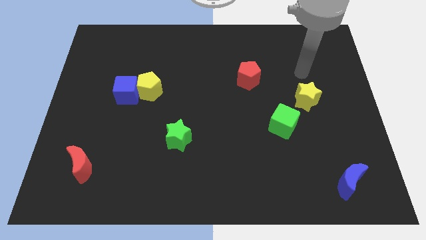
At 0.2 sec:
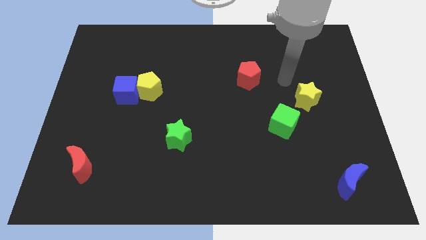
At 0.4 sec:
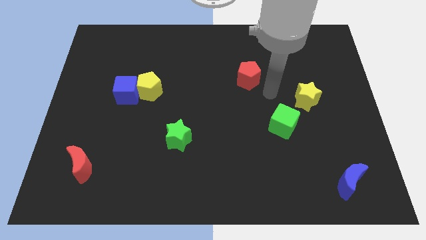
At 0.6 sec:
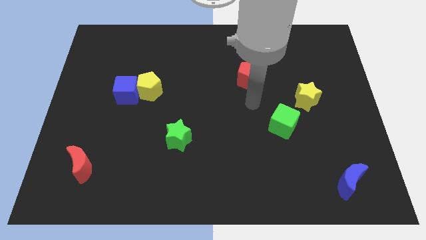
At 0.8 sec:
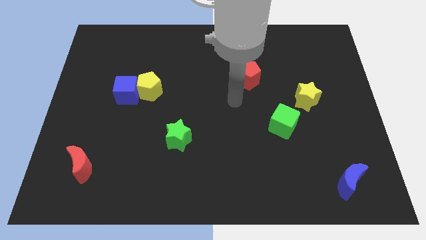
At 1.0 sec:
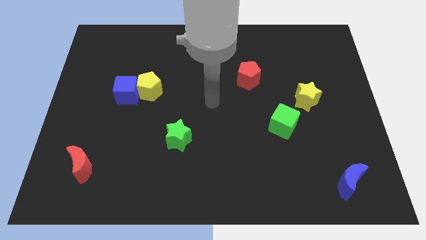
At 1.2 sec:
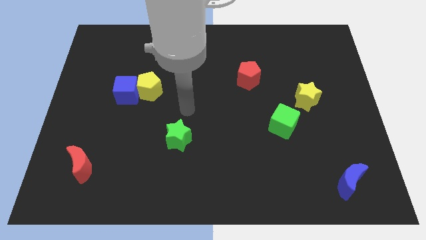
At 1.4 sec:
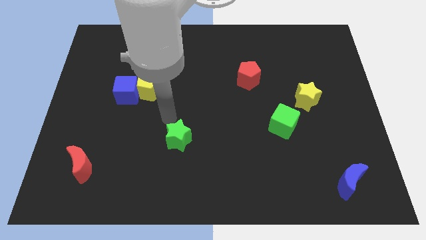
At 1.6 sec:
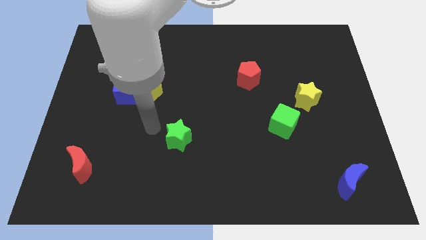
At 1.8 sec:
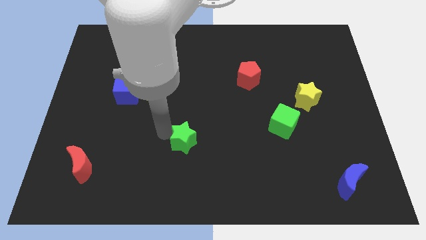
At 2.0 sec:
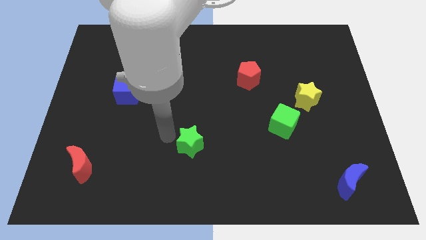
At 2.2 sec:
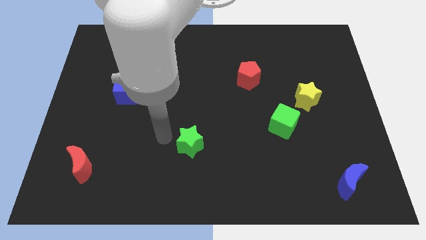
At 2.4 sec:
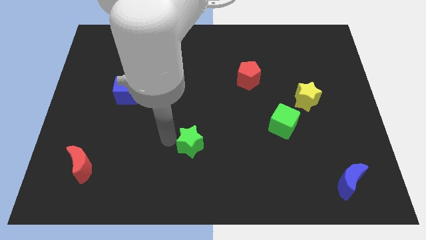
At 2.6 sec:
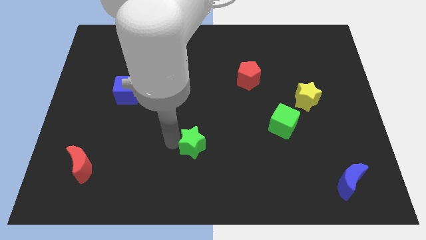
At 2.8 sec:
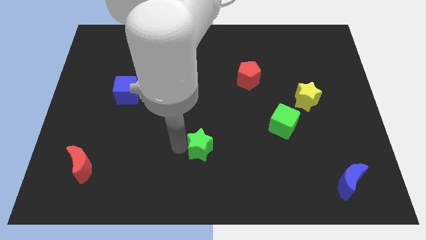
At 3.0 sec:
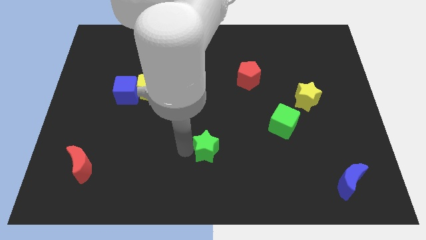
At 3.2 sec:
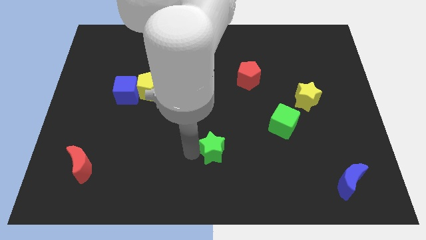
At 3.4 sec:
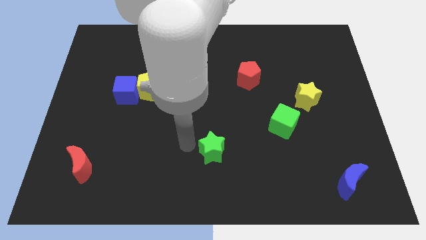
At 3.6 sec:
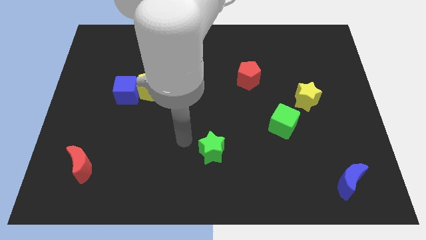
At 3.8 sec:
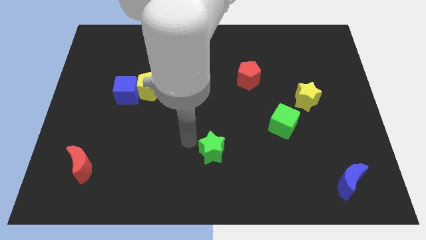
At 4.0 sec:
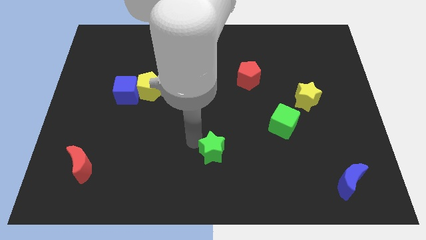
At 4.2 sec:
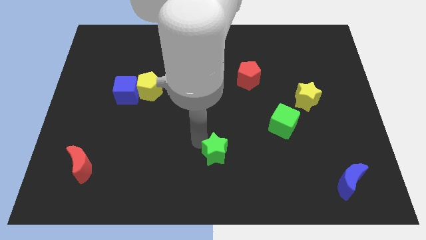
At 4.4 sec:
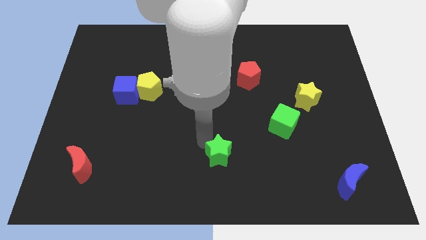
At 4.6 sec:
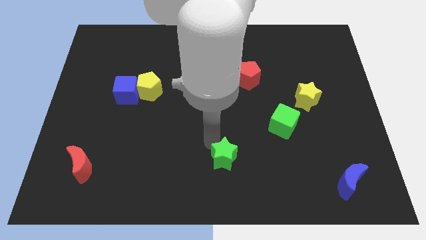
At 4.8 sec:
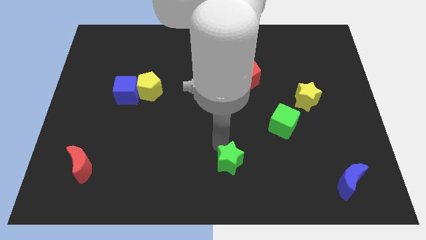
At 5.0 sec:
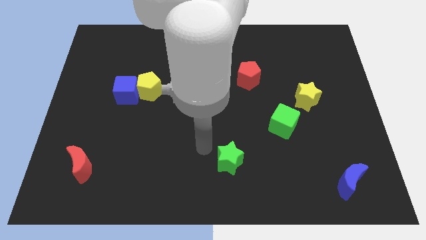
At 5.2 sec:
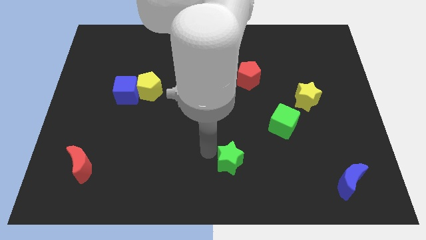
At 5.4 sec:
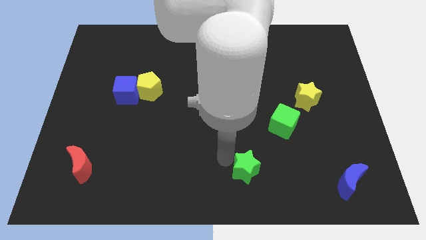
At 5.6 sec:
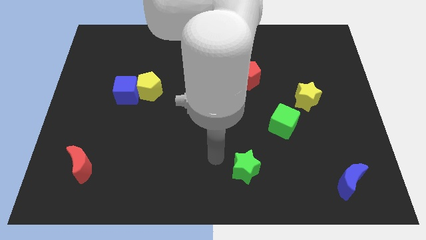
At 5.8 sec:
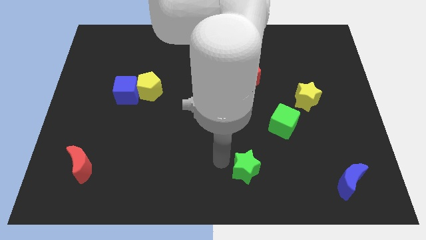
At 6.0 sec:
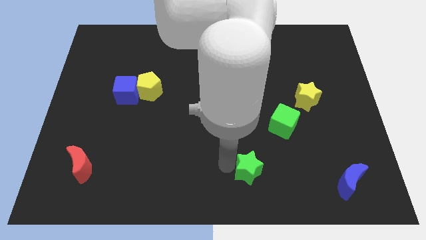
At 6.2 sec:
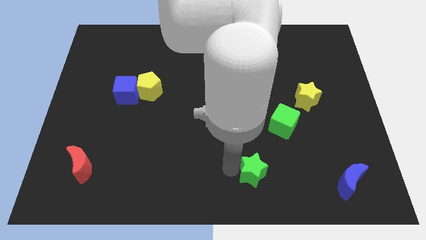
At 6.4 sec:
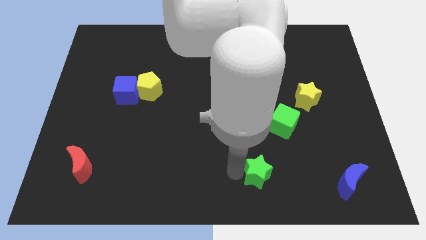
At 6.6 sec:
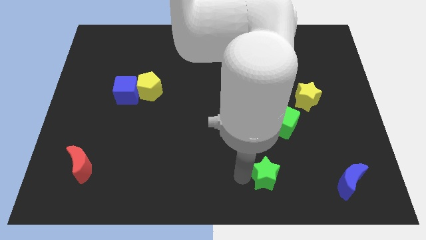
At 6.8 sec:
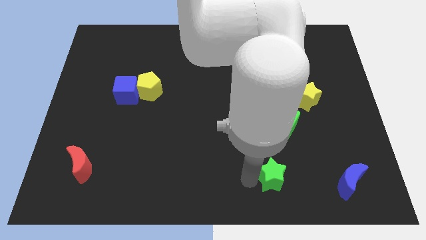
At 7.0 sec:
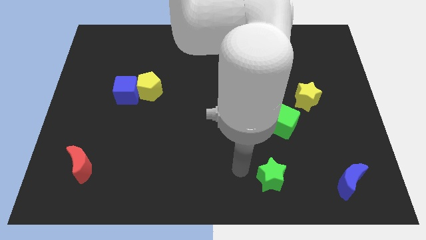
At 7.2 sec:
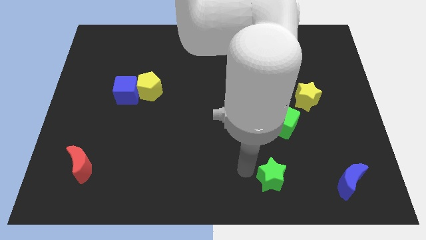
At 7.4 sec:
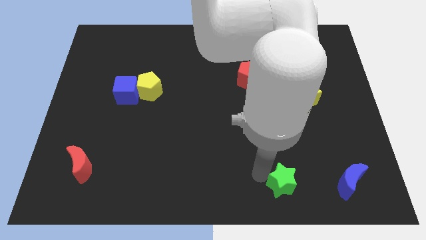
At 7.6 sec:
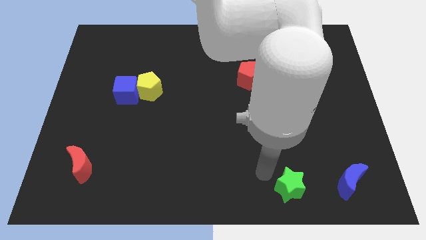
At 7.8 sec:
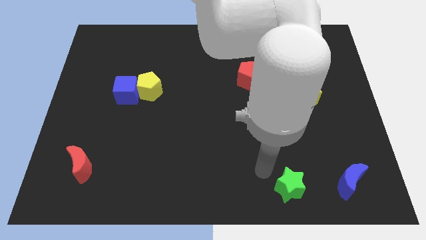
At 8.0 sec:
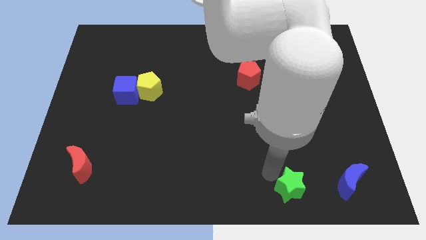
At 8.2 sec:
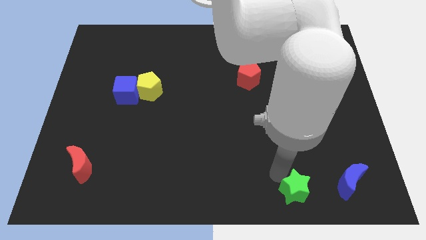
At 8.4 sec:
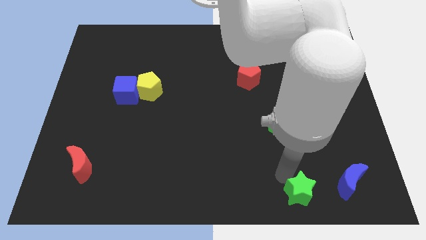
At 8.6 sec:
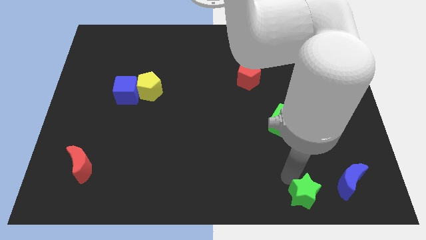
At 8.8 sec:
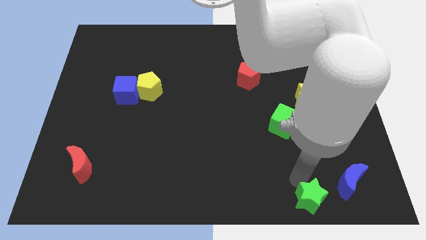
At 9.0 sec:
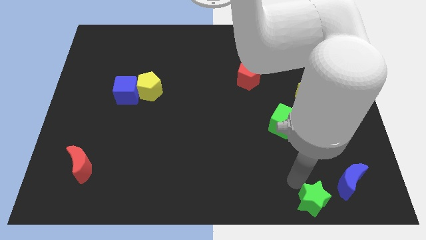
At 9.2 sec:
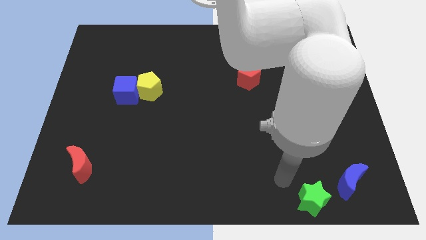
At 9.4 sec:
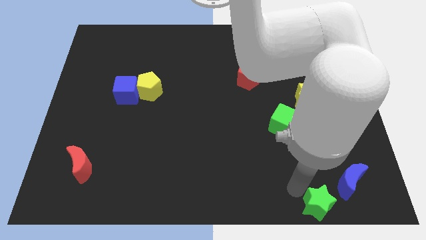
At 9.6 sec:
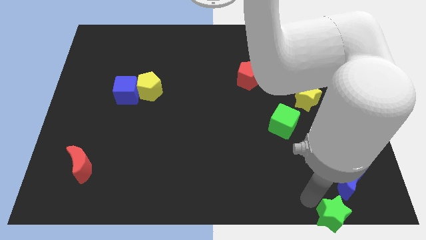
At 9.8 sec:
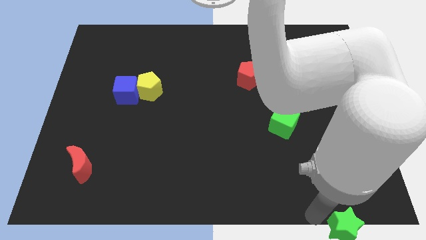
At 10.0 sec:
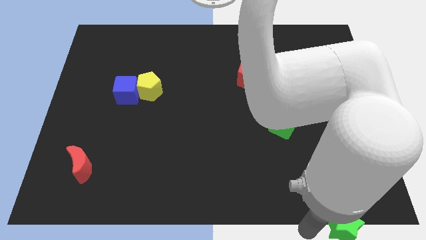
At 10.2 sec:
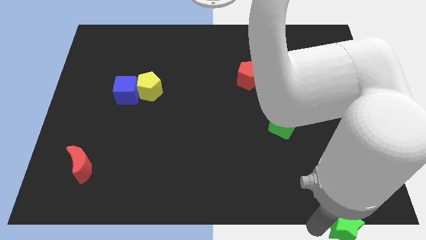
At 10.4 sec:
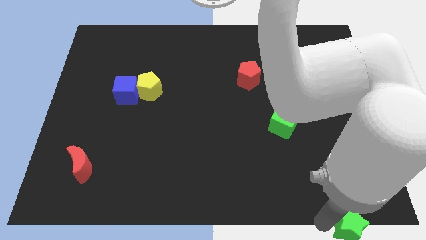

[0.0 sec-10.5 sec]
move the green star to the bottom right of the board

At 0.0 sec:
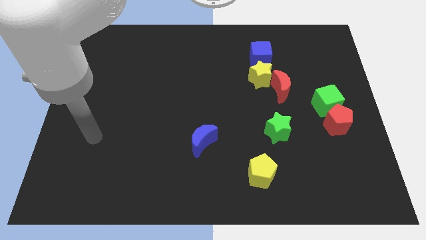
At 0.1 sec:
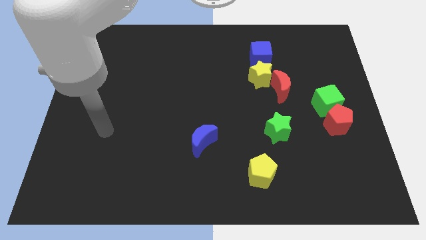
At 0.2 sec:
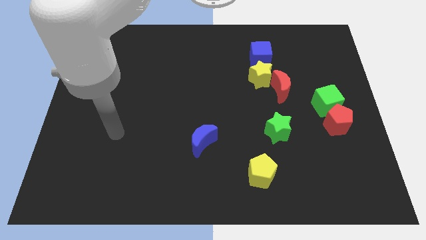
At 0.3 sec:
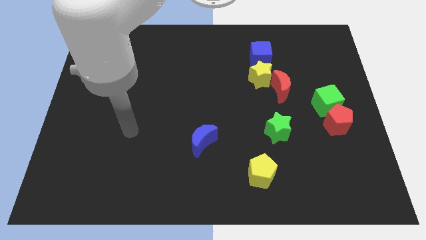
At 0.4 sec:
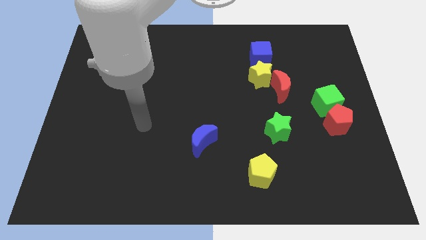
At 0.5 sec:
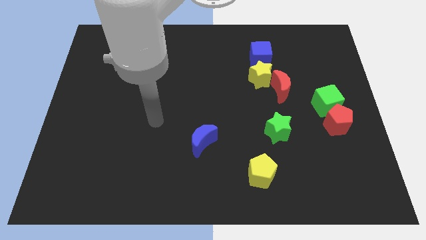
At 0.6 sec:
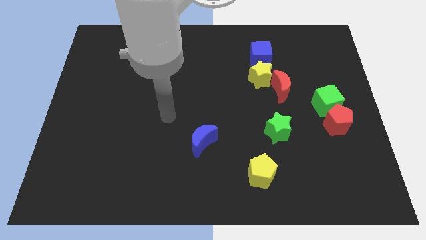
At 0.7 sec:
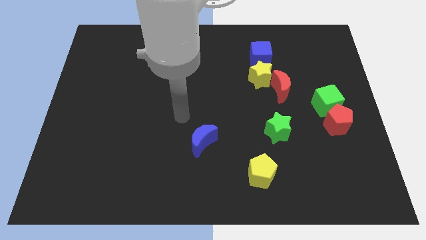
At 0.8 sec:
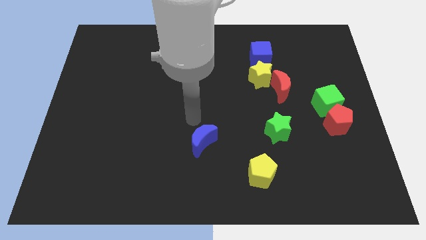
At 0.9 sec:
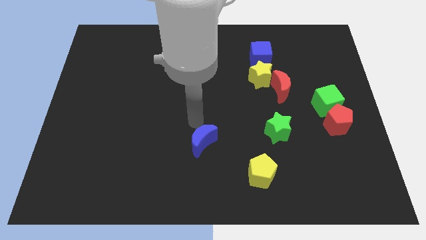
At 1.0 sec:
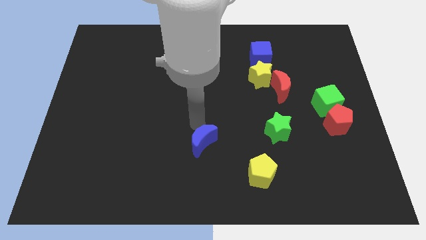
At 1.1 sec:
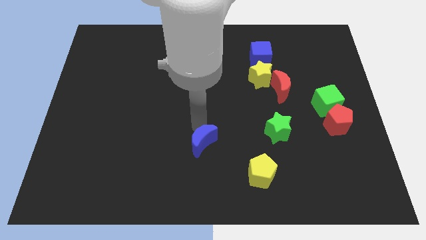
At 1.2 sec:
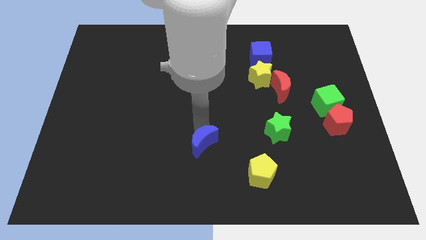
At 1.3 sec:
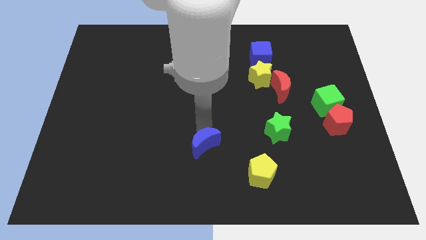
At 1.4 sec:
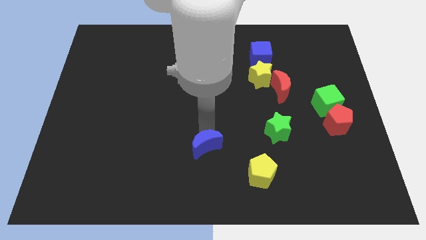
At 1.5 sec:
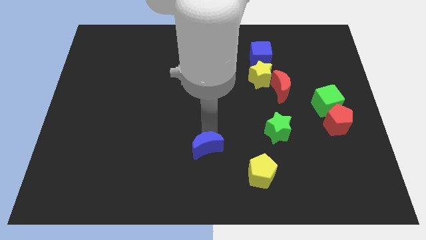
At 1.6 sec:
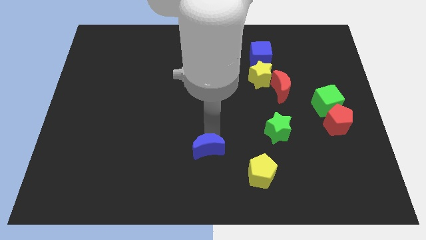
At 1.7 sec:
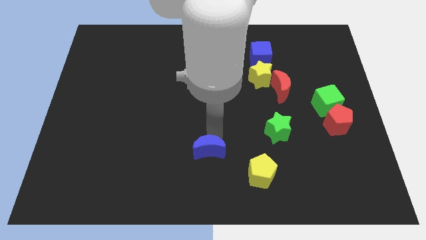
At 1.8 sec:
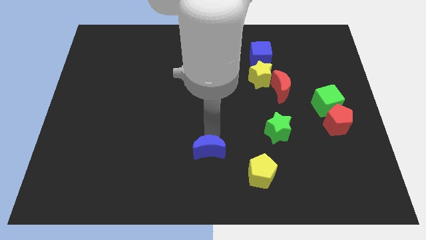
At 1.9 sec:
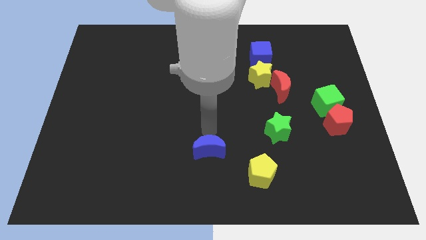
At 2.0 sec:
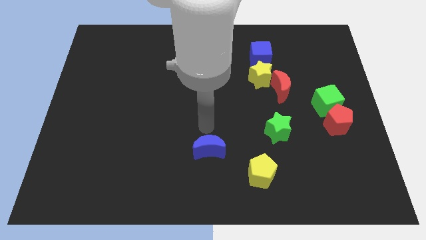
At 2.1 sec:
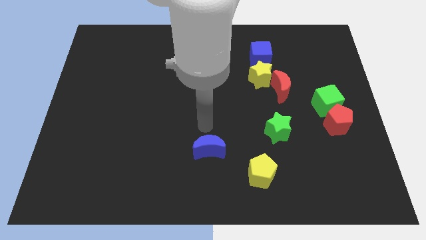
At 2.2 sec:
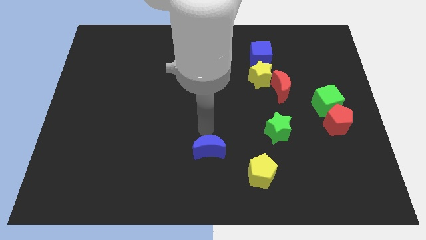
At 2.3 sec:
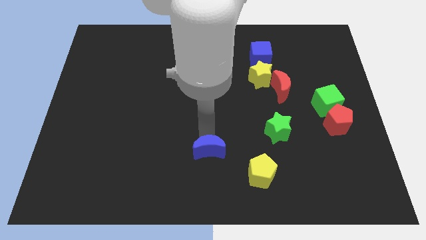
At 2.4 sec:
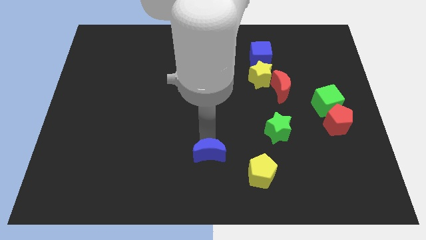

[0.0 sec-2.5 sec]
move the blue moon to the bottom side
